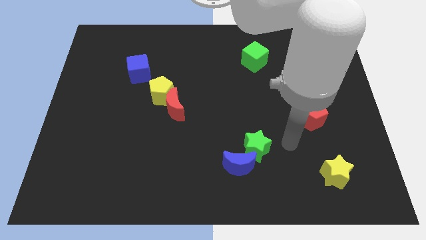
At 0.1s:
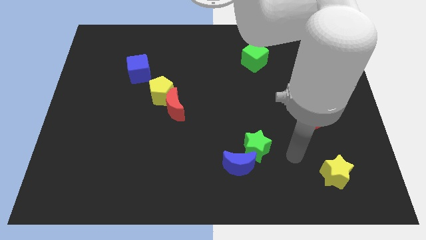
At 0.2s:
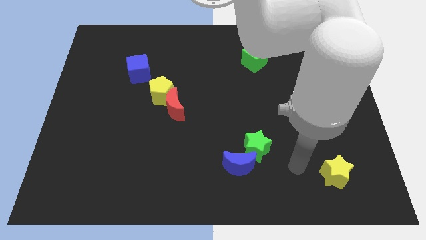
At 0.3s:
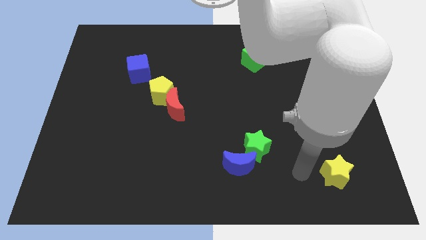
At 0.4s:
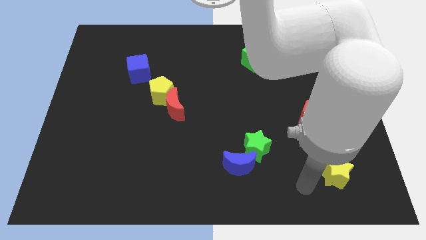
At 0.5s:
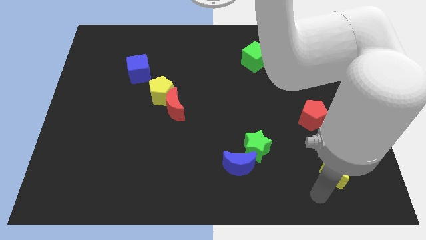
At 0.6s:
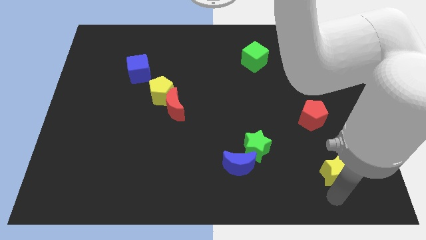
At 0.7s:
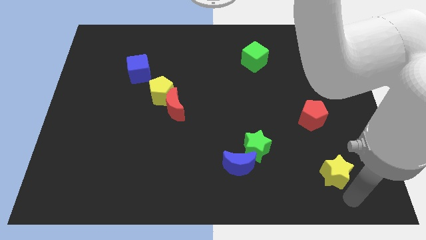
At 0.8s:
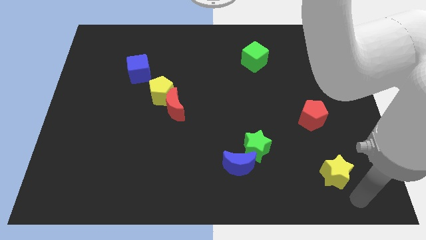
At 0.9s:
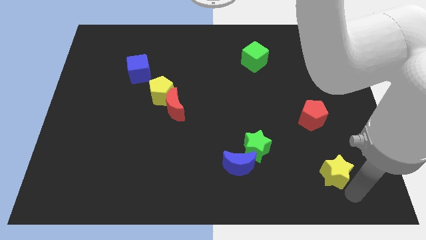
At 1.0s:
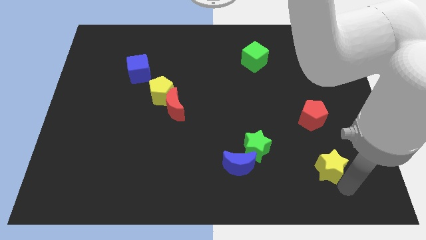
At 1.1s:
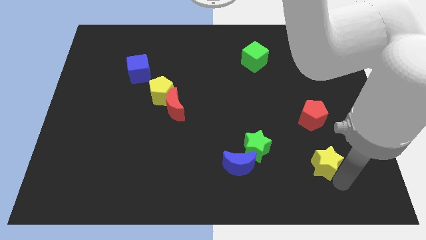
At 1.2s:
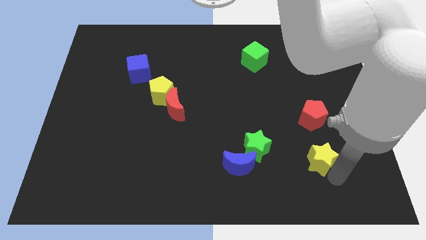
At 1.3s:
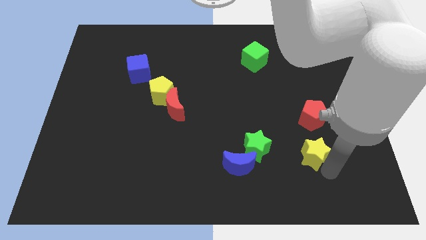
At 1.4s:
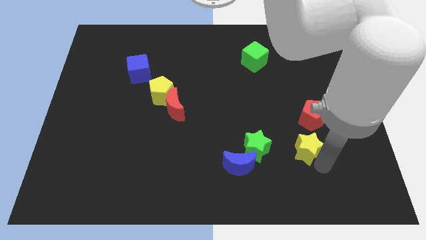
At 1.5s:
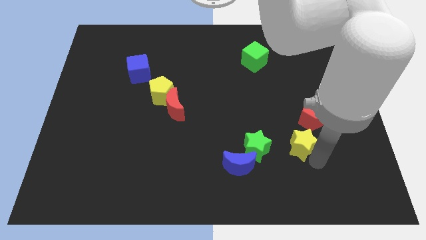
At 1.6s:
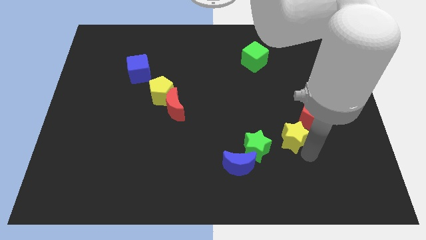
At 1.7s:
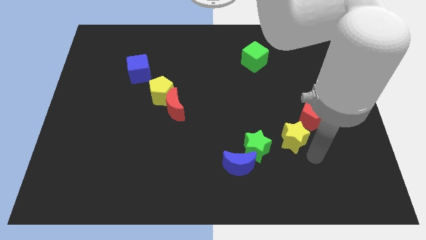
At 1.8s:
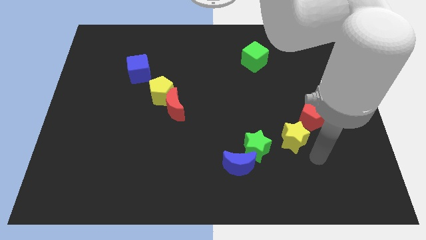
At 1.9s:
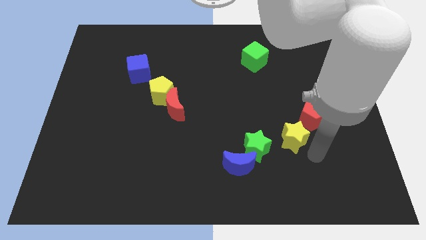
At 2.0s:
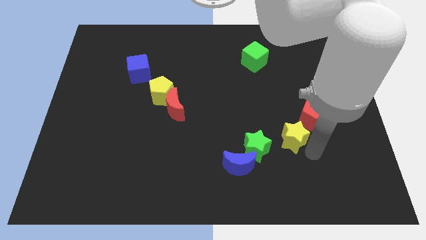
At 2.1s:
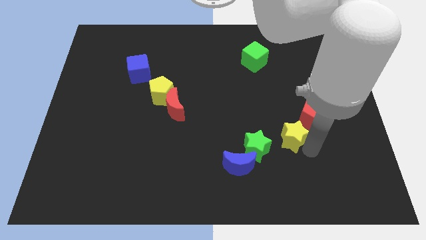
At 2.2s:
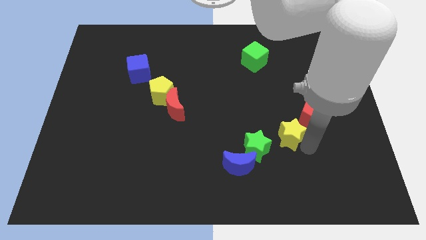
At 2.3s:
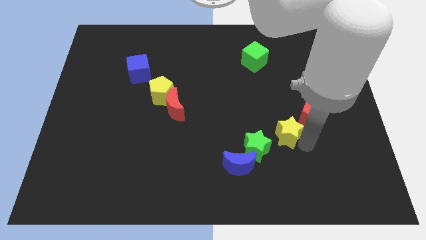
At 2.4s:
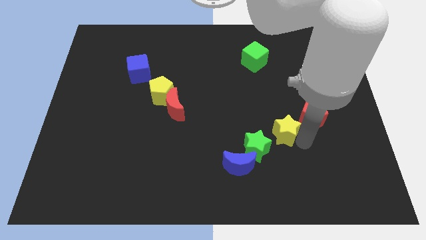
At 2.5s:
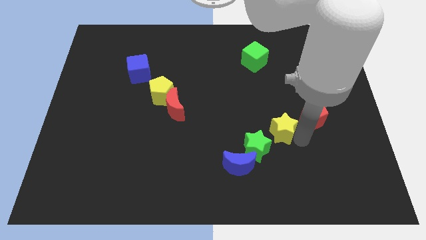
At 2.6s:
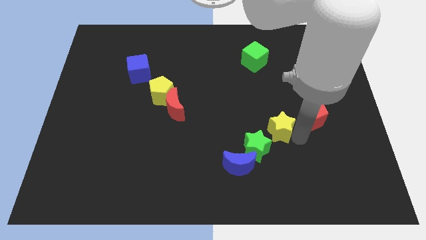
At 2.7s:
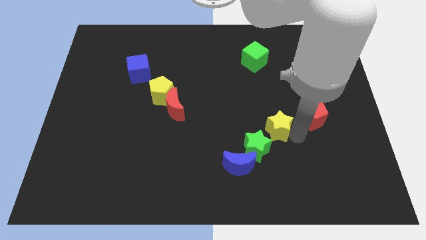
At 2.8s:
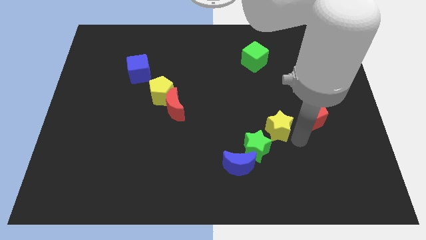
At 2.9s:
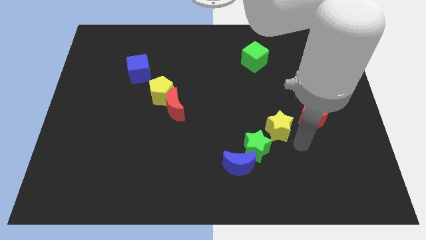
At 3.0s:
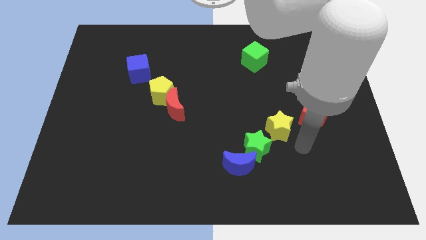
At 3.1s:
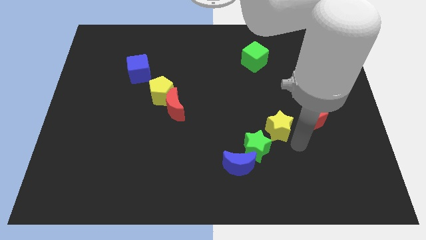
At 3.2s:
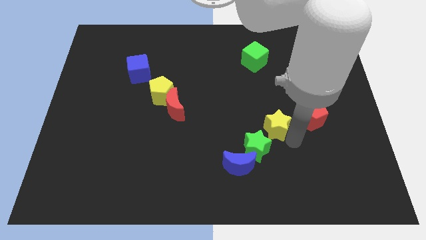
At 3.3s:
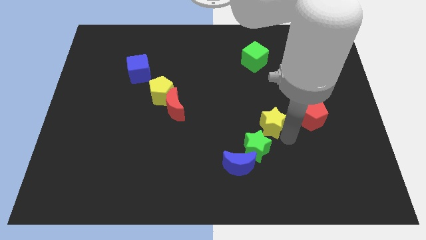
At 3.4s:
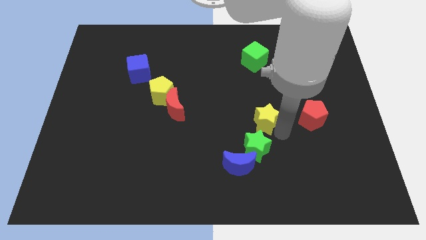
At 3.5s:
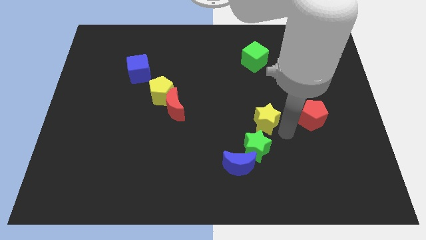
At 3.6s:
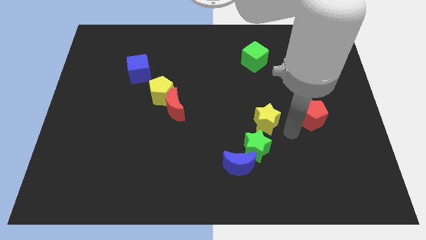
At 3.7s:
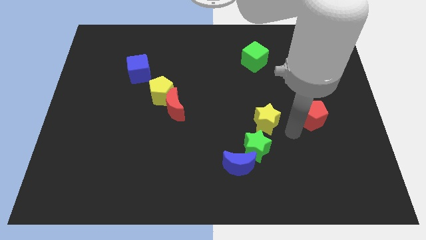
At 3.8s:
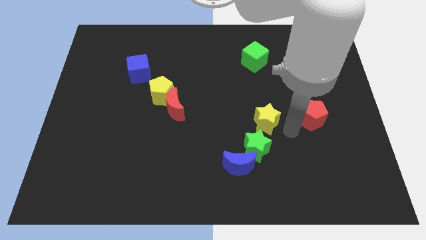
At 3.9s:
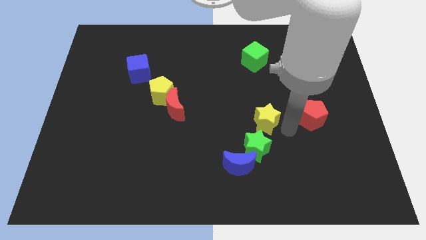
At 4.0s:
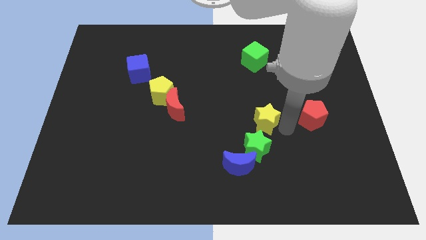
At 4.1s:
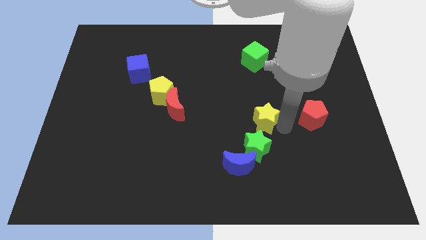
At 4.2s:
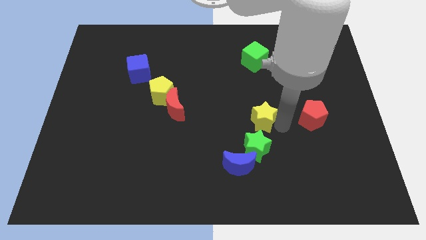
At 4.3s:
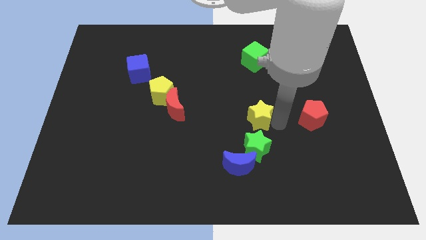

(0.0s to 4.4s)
slide the yellow star upwards and left diagonally

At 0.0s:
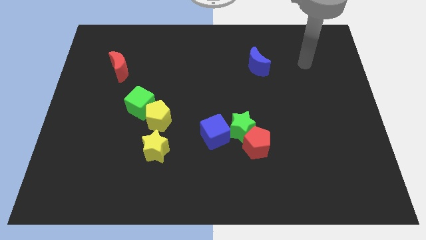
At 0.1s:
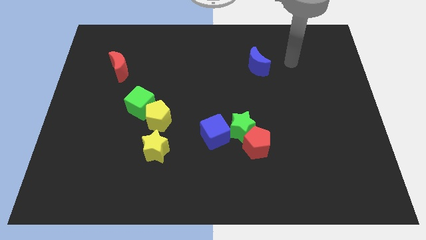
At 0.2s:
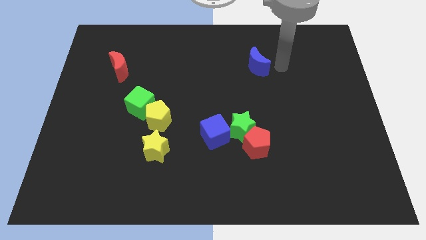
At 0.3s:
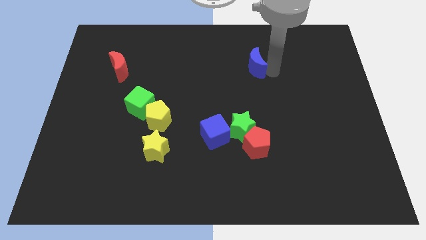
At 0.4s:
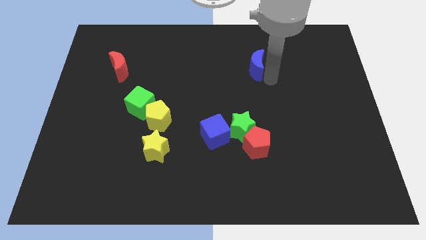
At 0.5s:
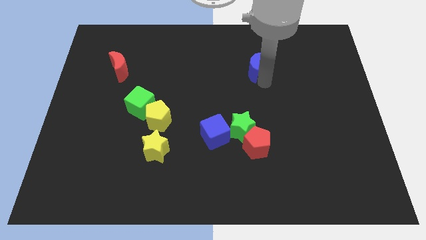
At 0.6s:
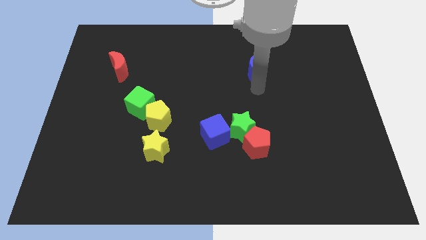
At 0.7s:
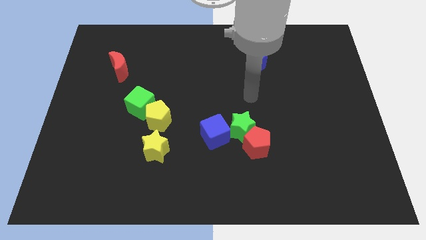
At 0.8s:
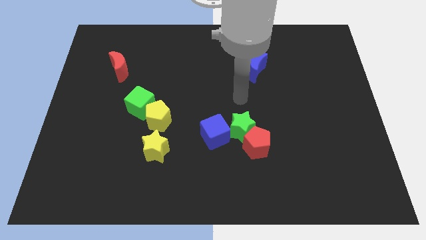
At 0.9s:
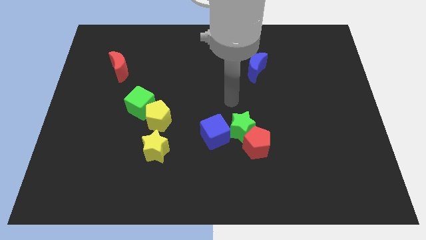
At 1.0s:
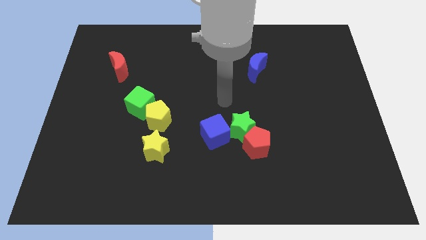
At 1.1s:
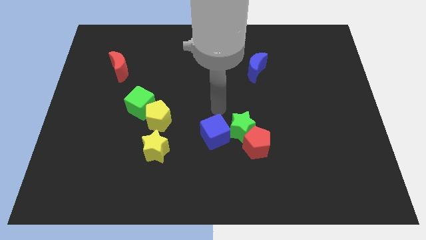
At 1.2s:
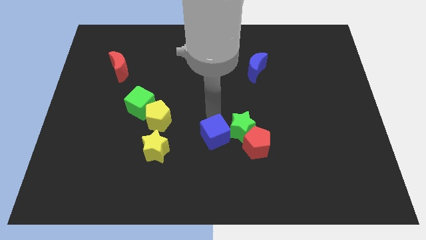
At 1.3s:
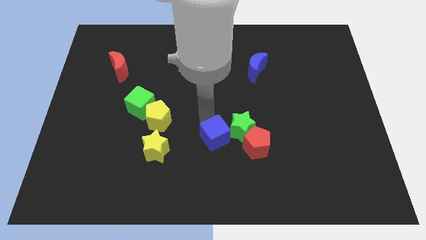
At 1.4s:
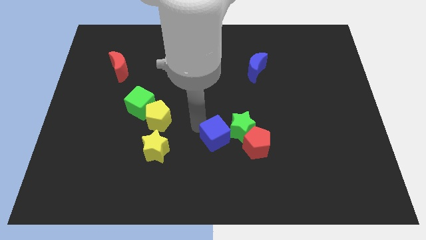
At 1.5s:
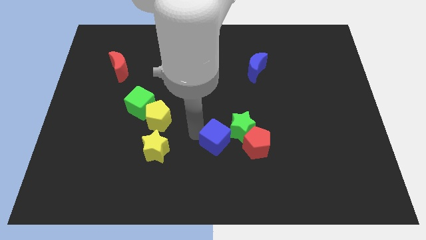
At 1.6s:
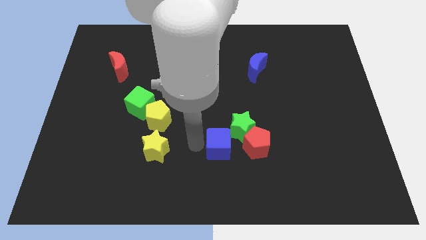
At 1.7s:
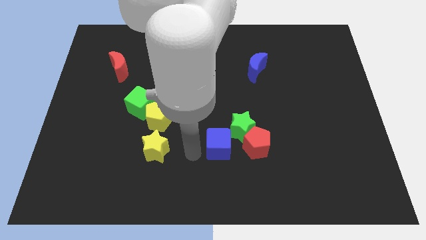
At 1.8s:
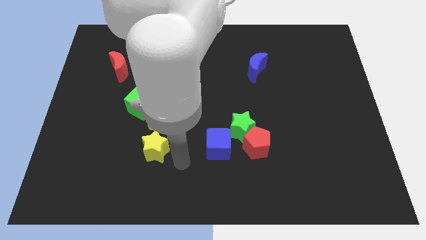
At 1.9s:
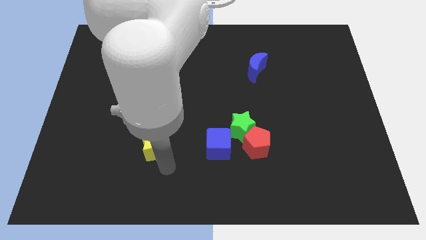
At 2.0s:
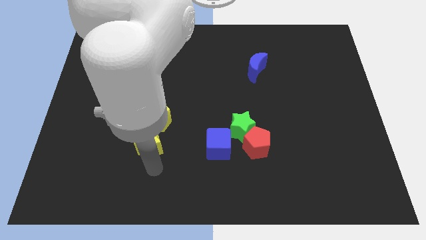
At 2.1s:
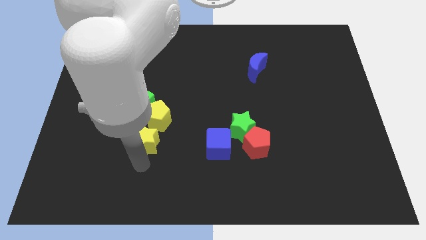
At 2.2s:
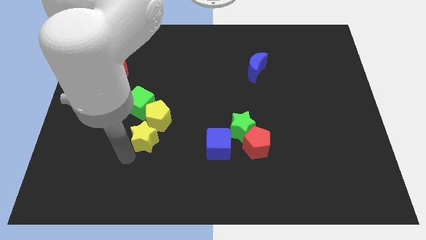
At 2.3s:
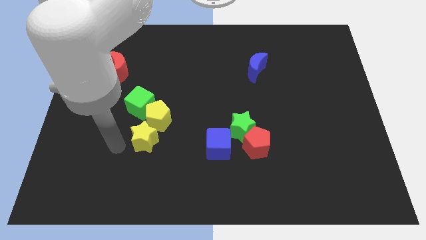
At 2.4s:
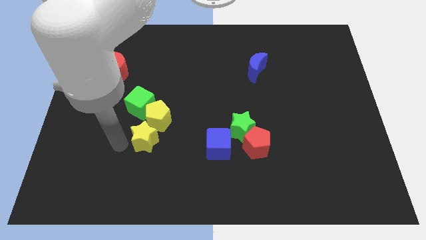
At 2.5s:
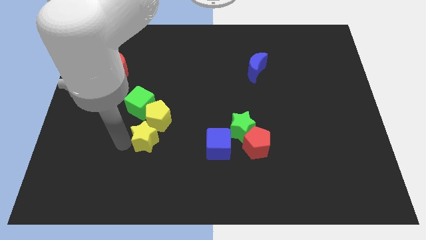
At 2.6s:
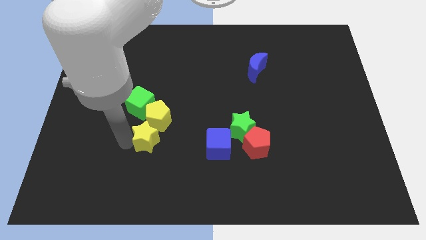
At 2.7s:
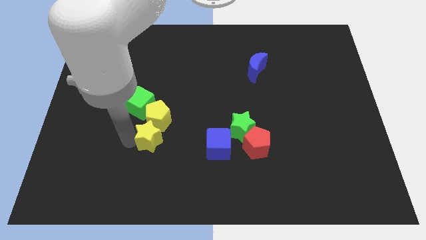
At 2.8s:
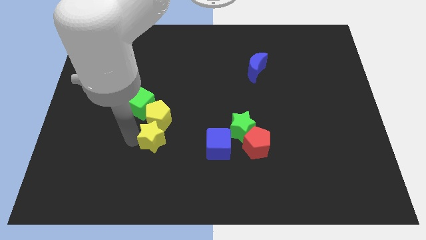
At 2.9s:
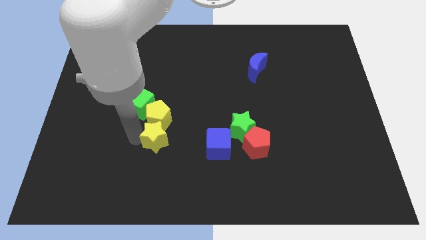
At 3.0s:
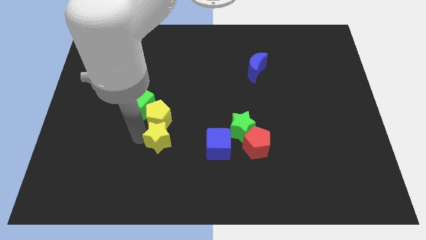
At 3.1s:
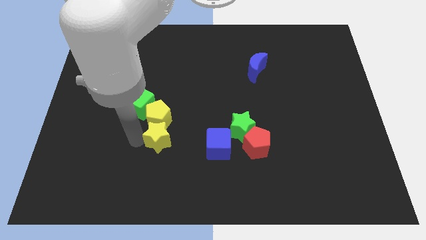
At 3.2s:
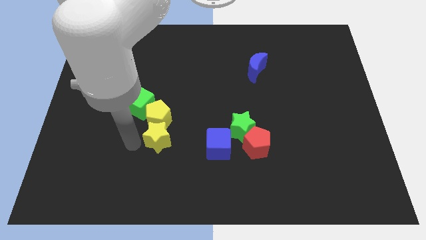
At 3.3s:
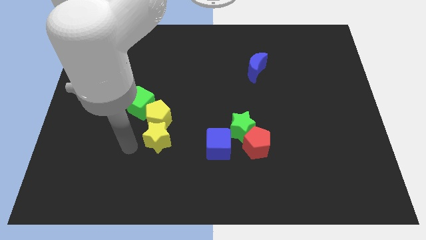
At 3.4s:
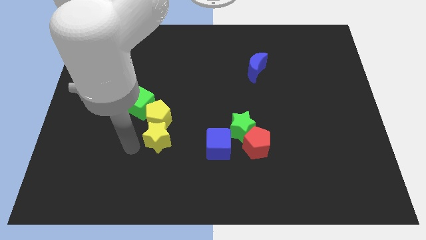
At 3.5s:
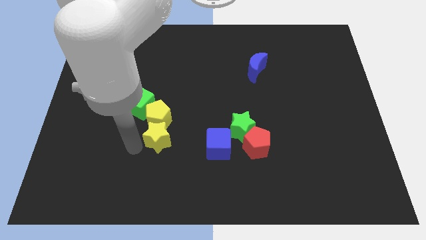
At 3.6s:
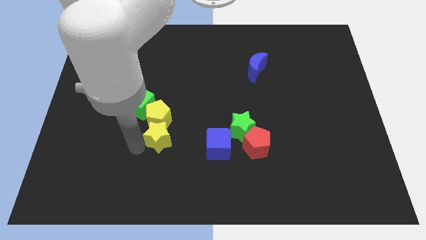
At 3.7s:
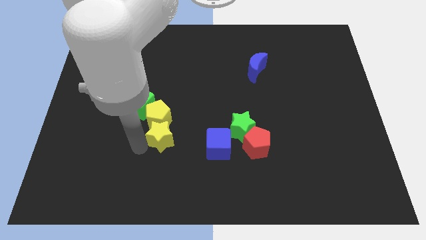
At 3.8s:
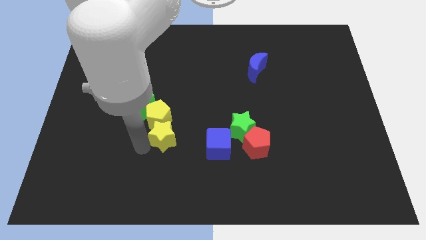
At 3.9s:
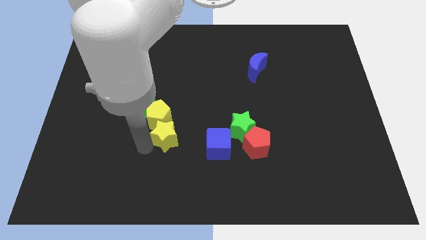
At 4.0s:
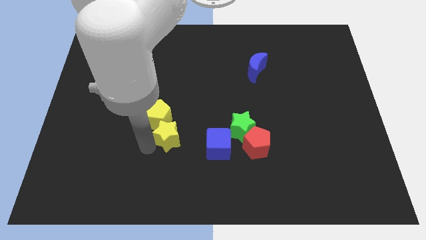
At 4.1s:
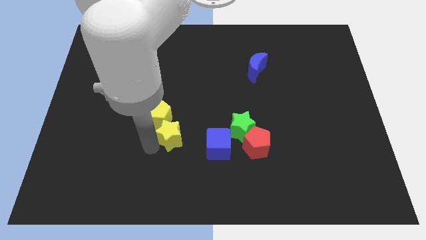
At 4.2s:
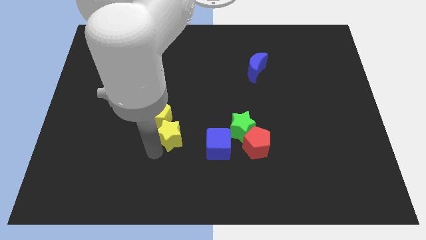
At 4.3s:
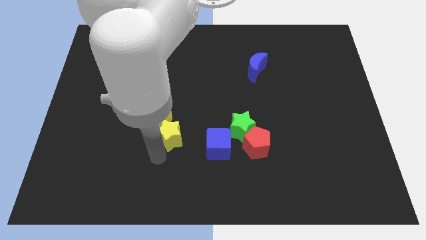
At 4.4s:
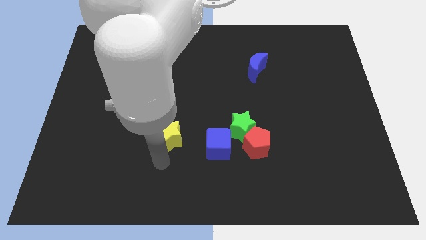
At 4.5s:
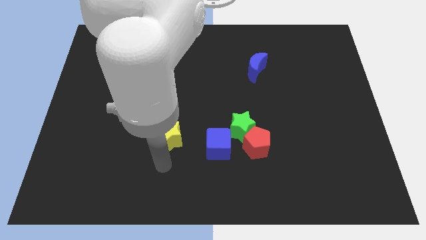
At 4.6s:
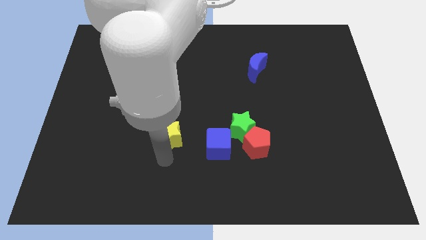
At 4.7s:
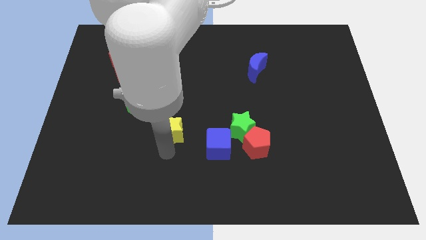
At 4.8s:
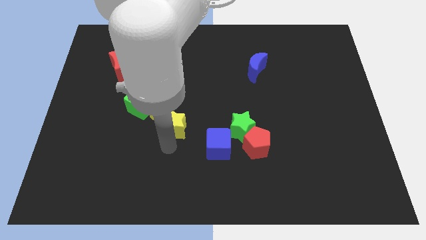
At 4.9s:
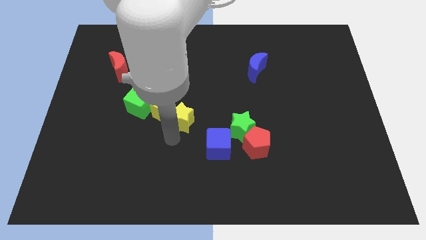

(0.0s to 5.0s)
move the yellow star up a little
